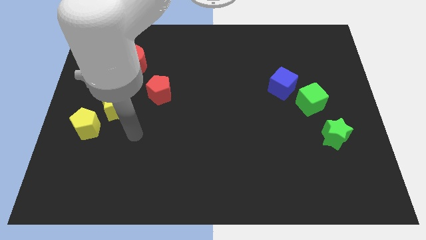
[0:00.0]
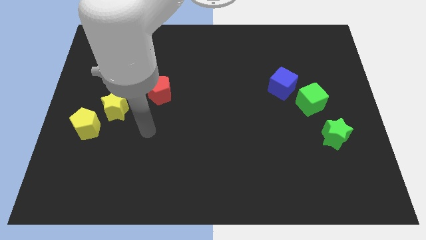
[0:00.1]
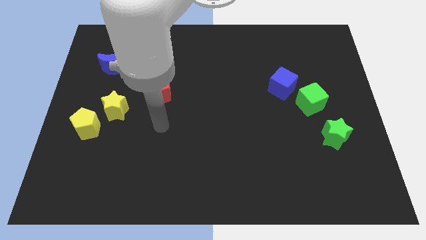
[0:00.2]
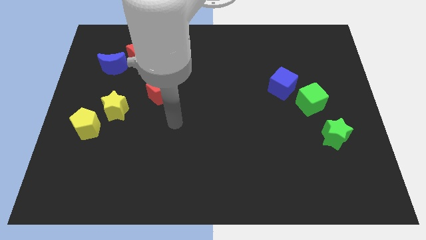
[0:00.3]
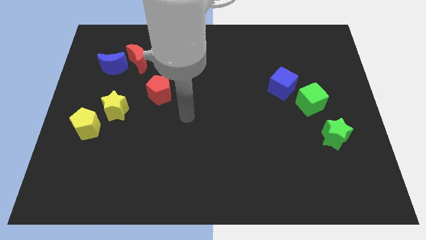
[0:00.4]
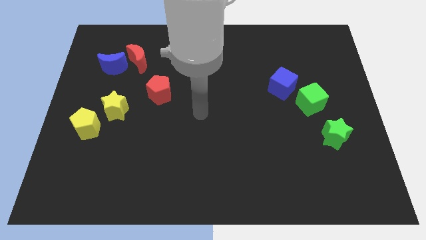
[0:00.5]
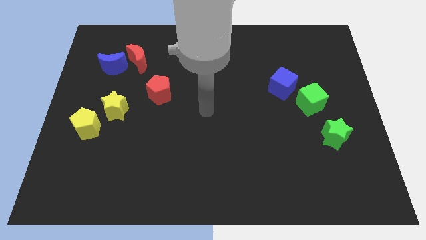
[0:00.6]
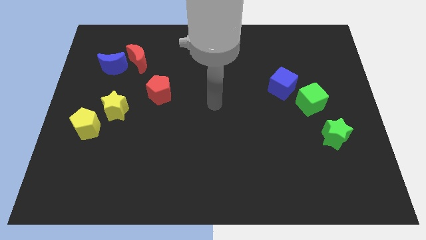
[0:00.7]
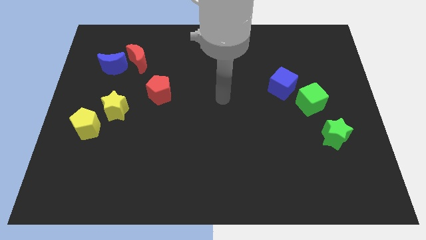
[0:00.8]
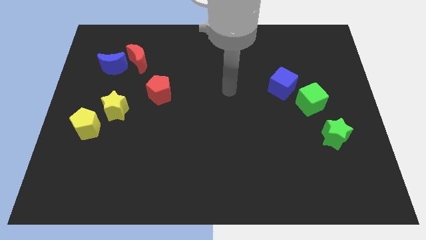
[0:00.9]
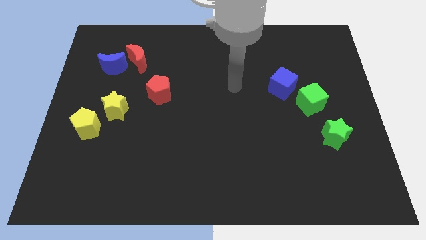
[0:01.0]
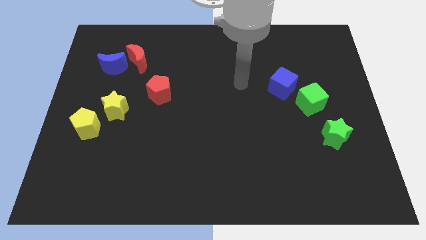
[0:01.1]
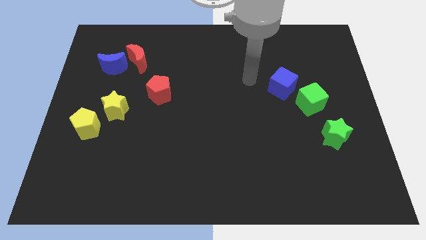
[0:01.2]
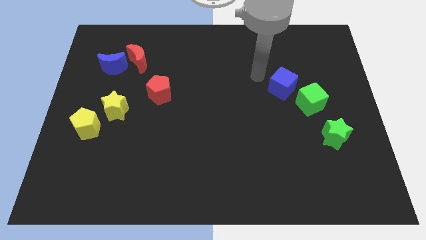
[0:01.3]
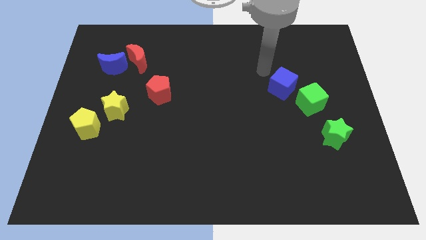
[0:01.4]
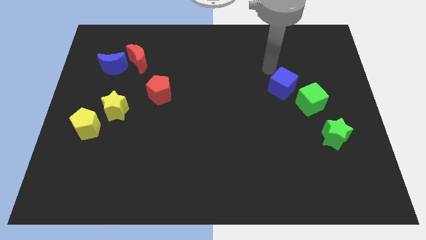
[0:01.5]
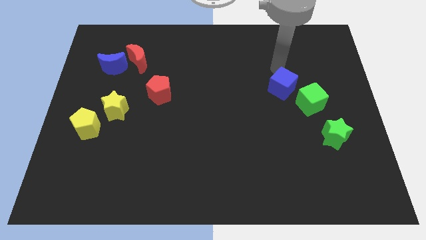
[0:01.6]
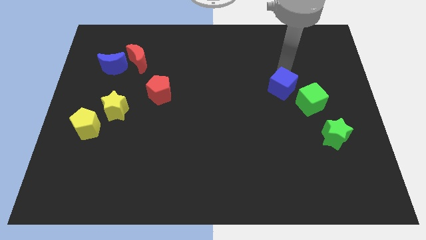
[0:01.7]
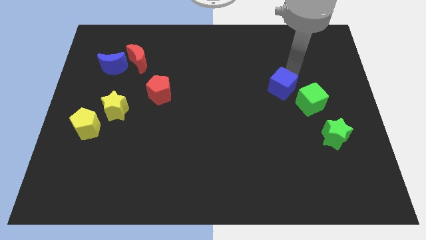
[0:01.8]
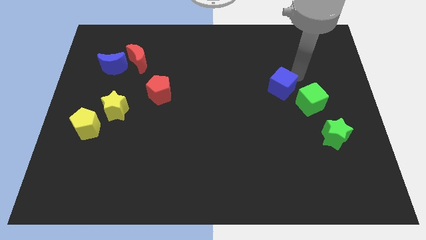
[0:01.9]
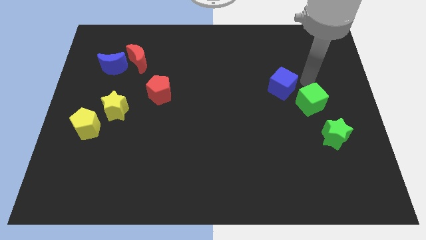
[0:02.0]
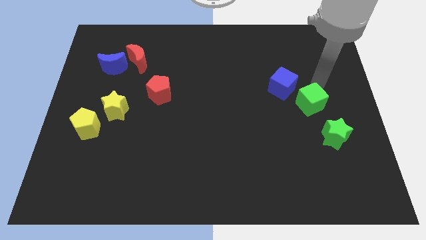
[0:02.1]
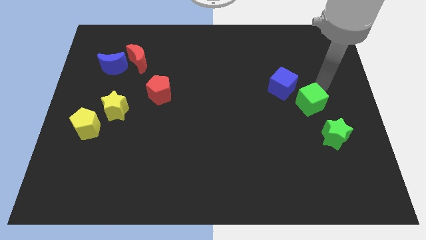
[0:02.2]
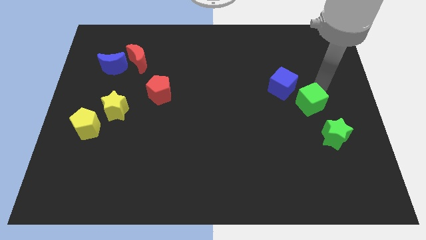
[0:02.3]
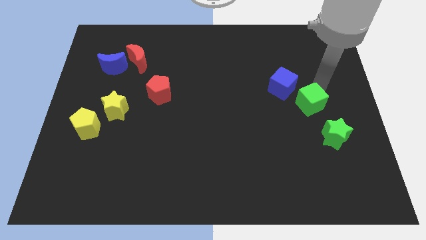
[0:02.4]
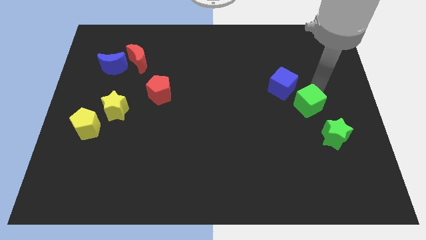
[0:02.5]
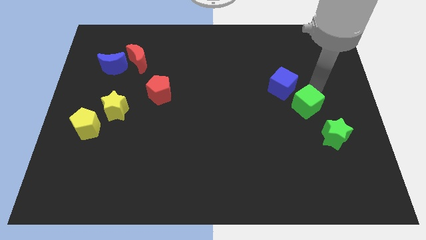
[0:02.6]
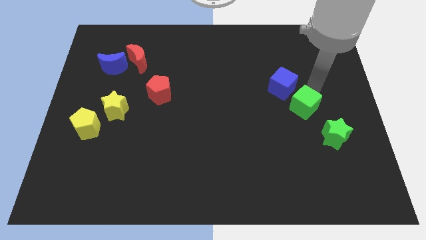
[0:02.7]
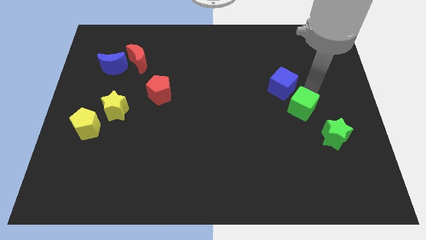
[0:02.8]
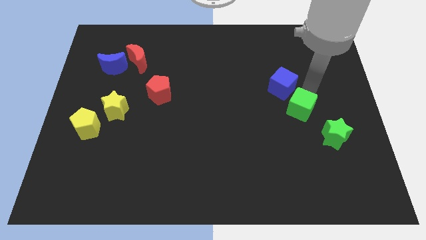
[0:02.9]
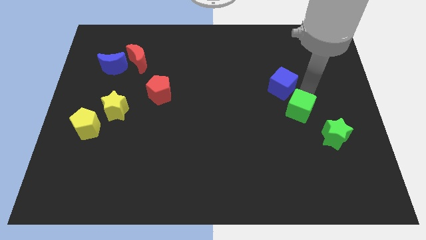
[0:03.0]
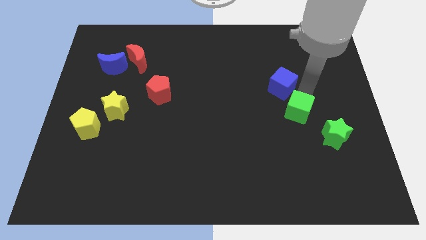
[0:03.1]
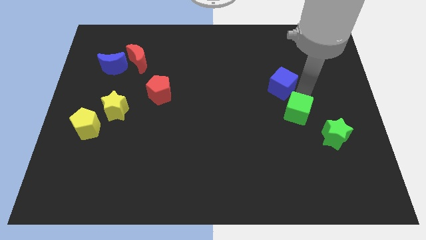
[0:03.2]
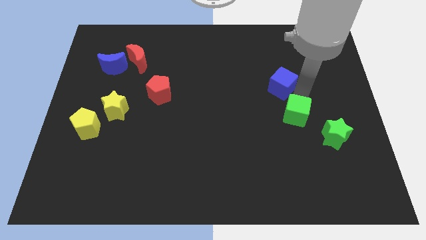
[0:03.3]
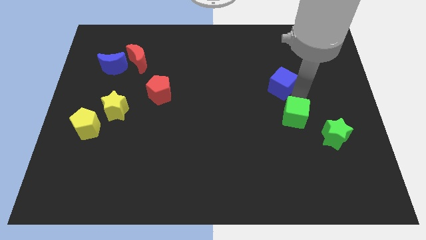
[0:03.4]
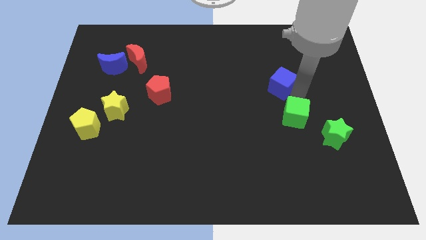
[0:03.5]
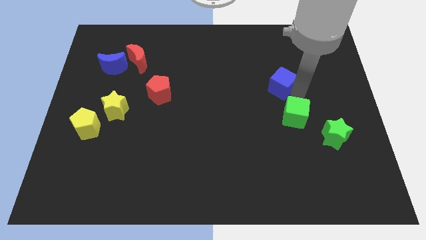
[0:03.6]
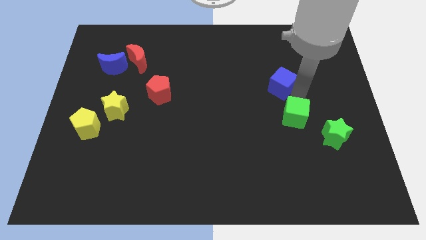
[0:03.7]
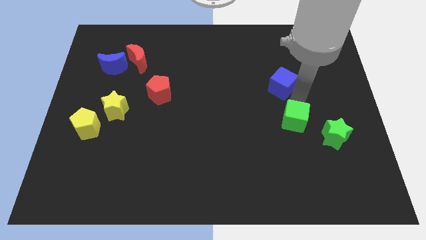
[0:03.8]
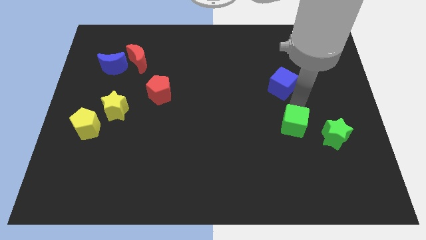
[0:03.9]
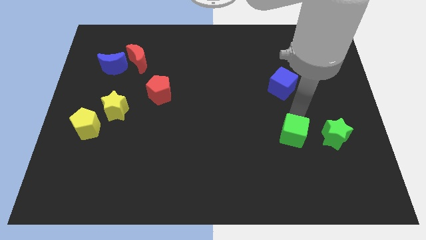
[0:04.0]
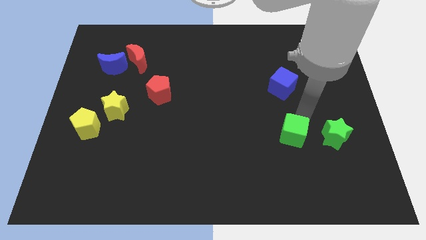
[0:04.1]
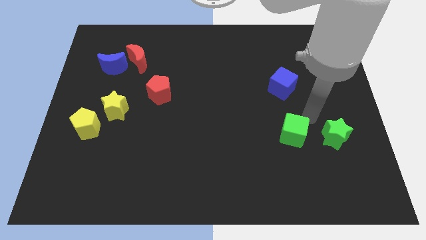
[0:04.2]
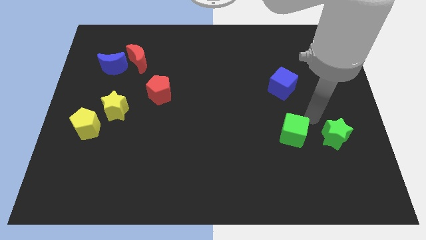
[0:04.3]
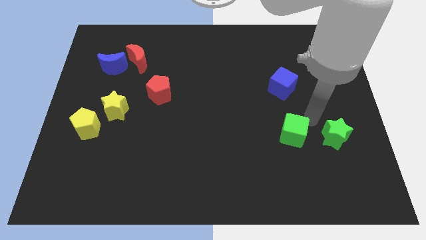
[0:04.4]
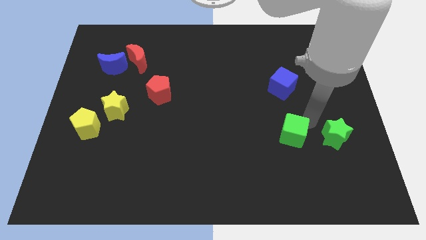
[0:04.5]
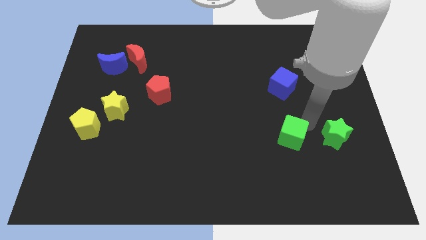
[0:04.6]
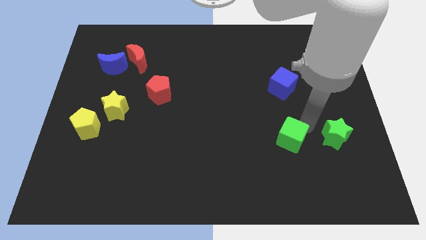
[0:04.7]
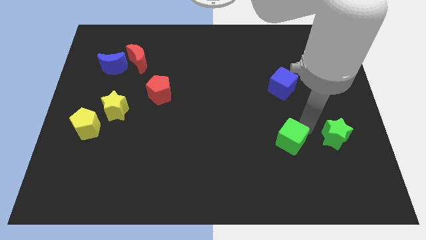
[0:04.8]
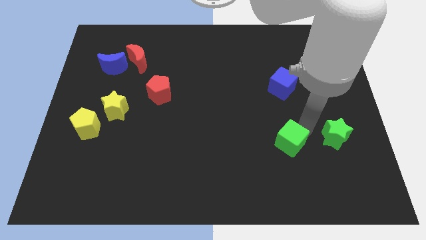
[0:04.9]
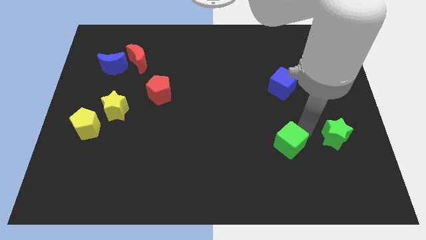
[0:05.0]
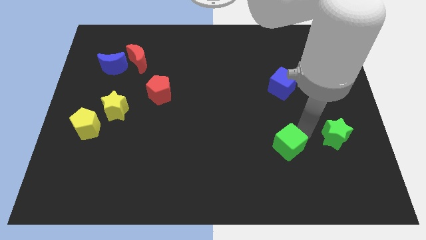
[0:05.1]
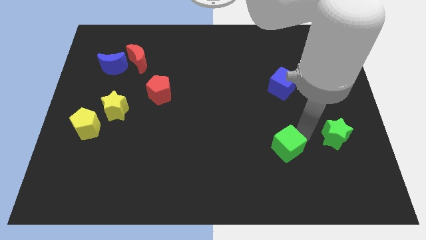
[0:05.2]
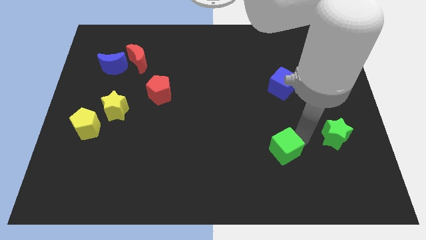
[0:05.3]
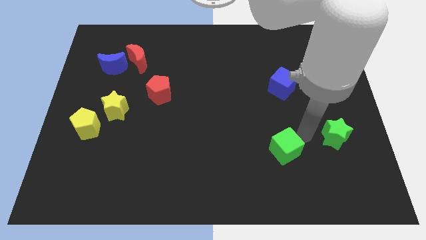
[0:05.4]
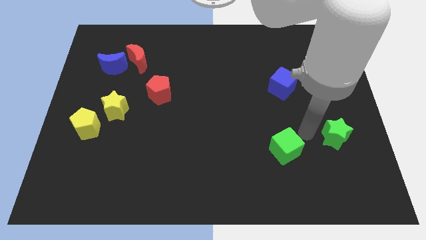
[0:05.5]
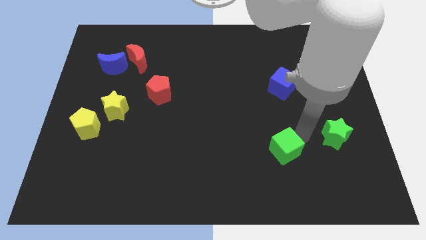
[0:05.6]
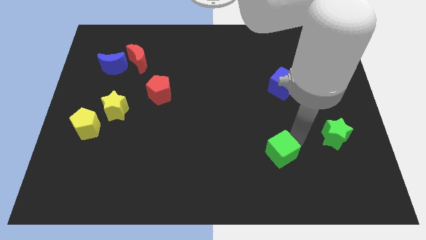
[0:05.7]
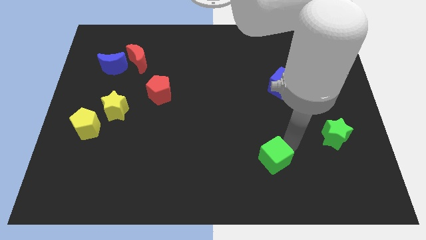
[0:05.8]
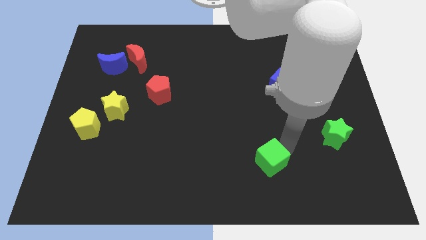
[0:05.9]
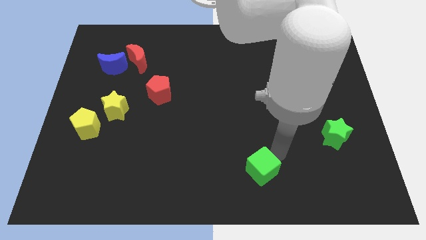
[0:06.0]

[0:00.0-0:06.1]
slide the green cube to the bottom side

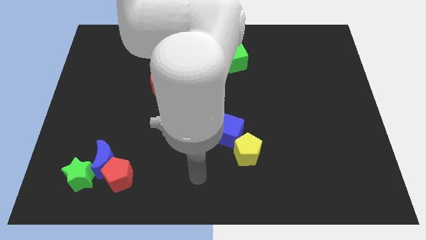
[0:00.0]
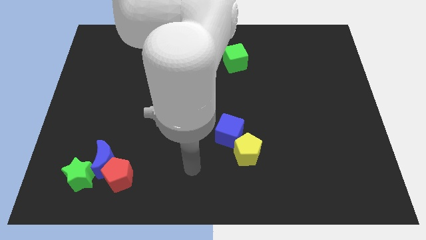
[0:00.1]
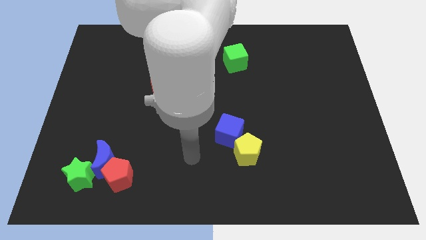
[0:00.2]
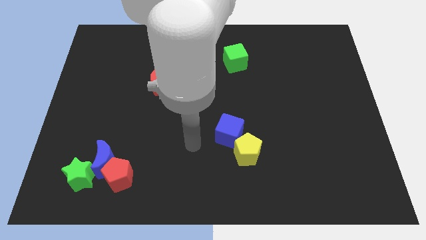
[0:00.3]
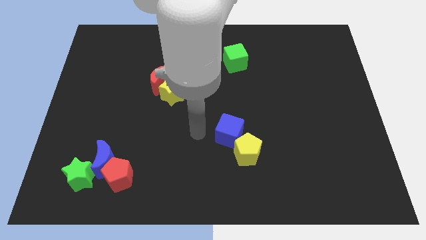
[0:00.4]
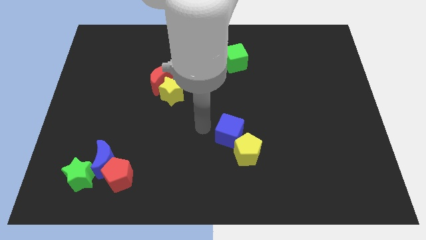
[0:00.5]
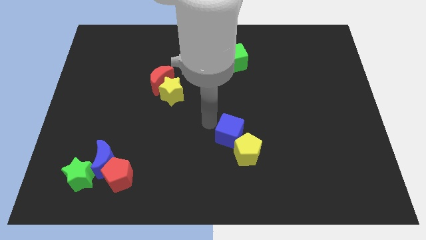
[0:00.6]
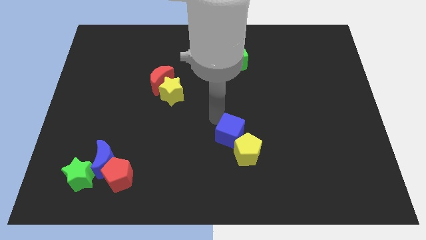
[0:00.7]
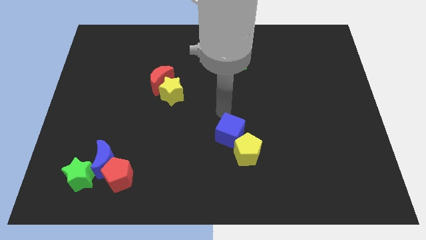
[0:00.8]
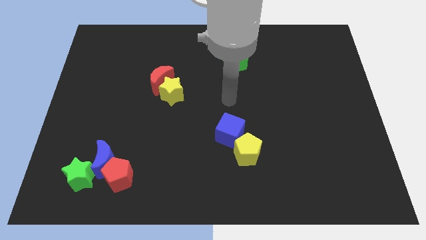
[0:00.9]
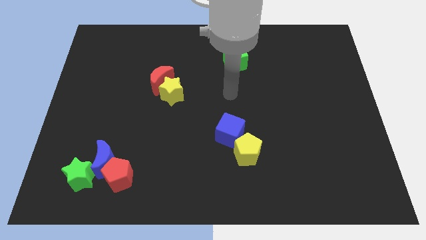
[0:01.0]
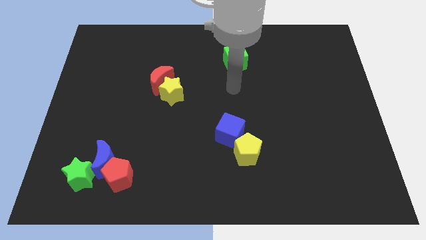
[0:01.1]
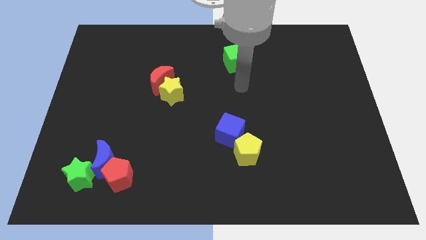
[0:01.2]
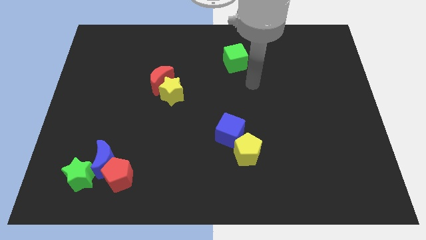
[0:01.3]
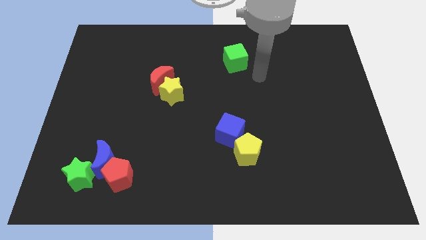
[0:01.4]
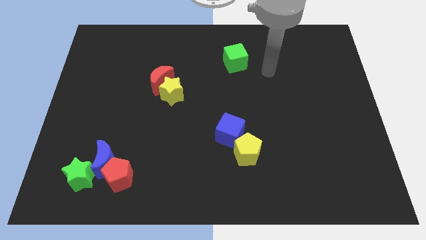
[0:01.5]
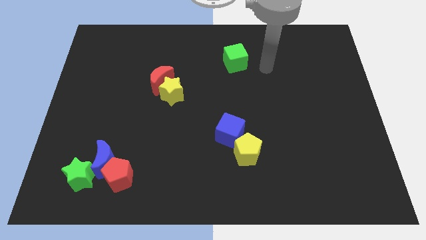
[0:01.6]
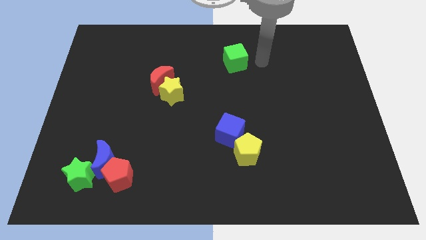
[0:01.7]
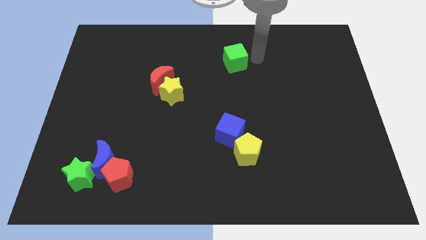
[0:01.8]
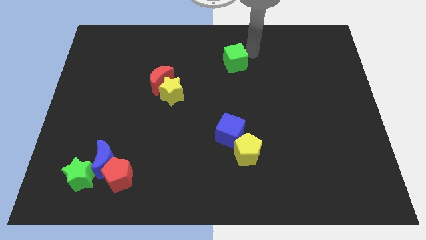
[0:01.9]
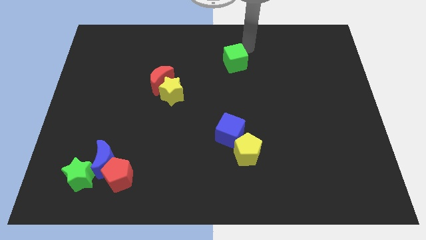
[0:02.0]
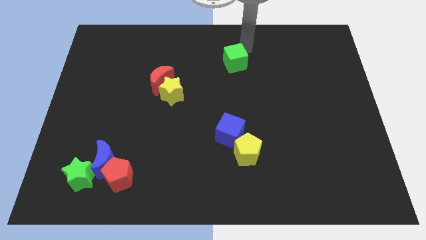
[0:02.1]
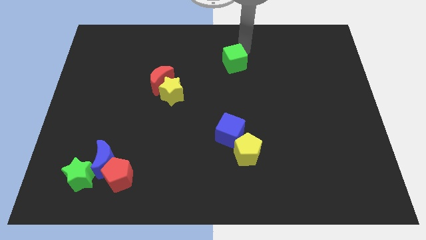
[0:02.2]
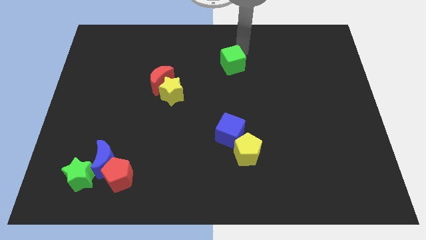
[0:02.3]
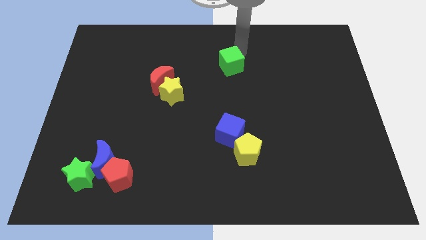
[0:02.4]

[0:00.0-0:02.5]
move the green cube to the center of the board
